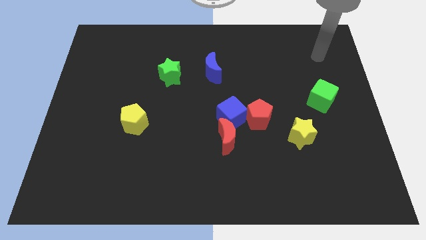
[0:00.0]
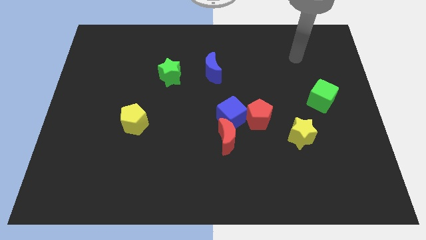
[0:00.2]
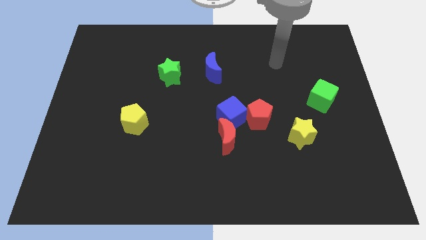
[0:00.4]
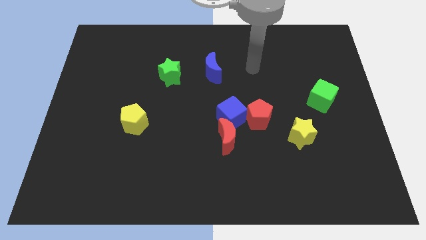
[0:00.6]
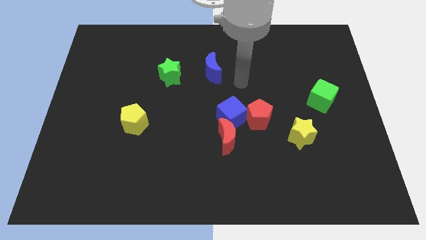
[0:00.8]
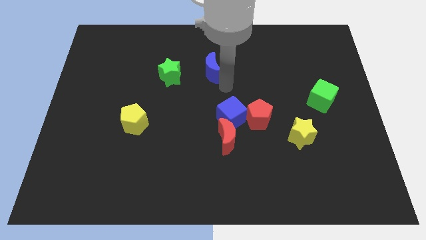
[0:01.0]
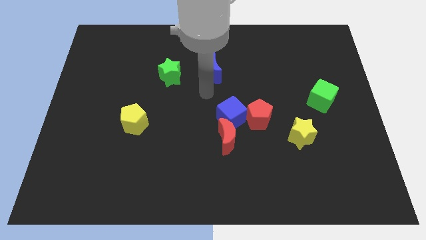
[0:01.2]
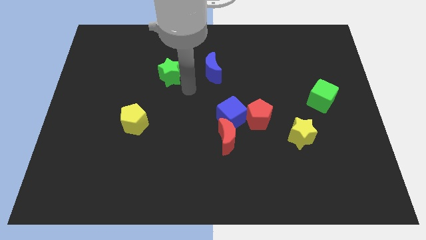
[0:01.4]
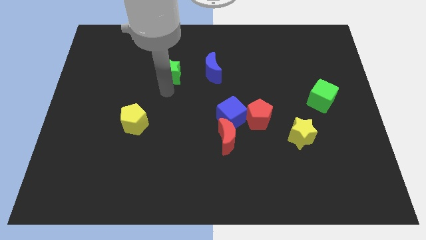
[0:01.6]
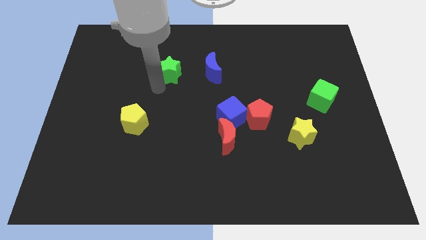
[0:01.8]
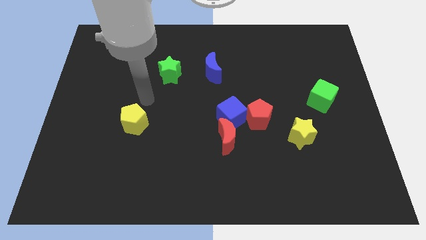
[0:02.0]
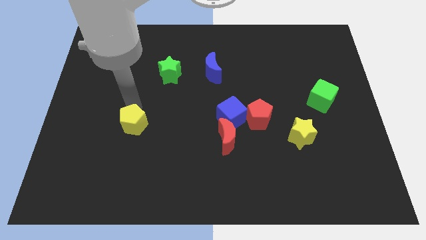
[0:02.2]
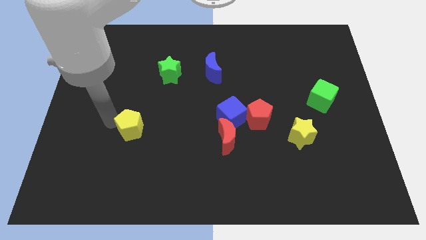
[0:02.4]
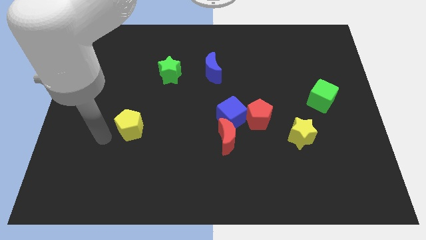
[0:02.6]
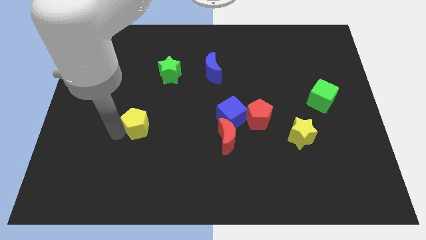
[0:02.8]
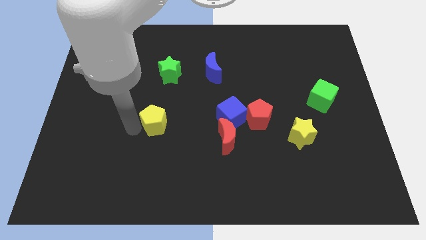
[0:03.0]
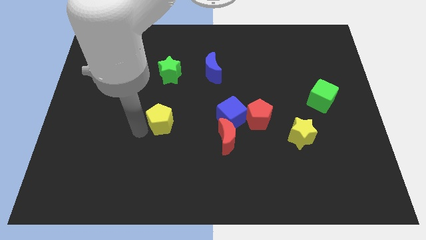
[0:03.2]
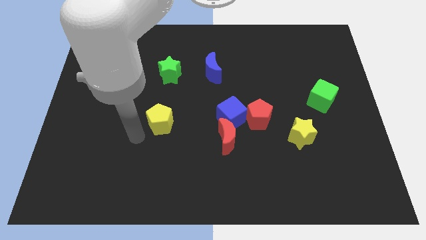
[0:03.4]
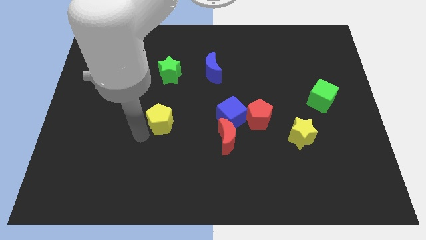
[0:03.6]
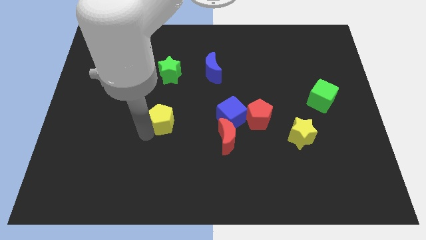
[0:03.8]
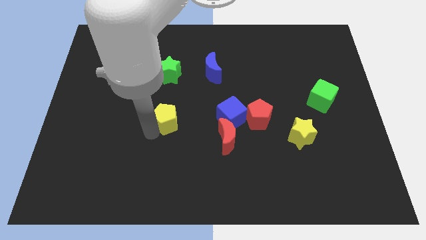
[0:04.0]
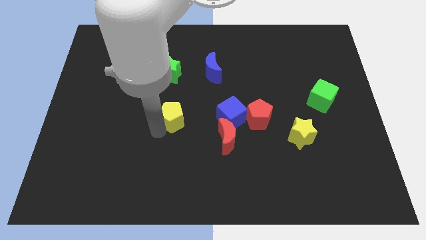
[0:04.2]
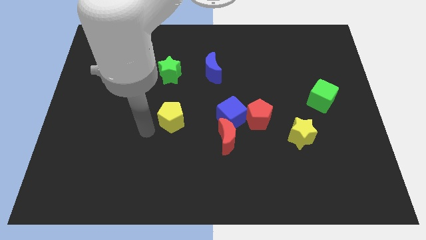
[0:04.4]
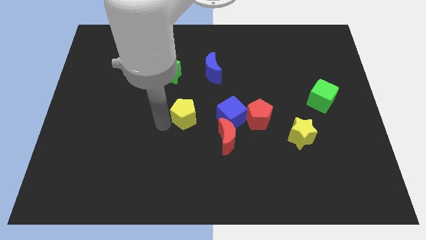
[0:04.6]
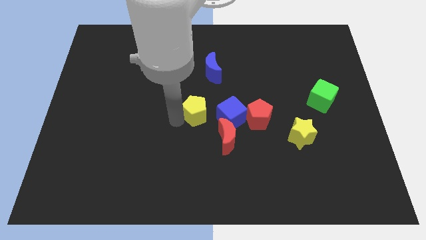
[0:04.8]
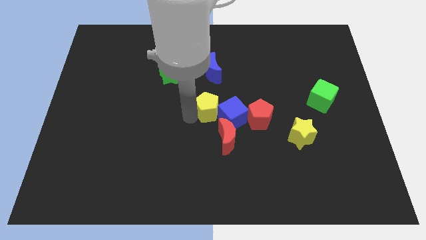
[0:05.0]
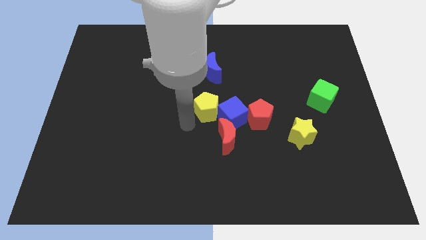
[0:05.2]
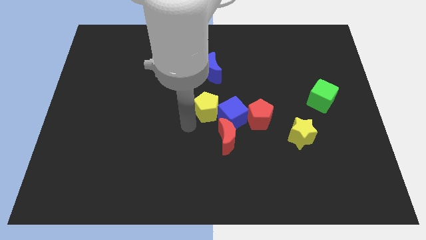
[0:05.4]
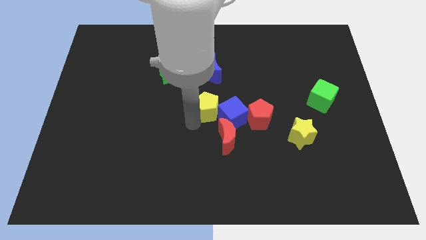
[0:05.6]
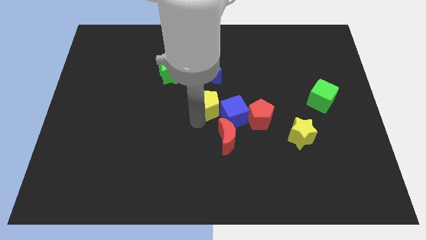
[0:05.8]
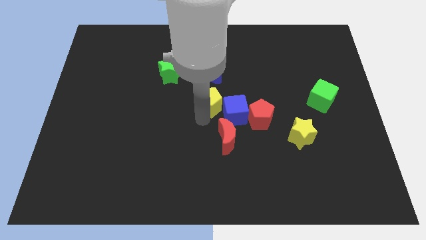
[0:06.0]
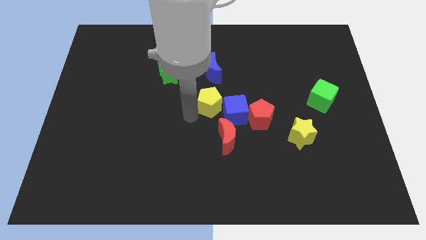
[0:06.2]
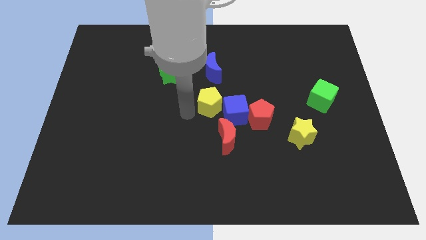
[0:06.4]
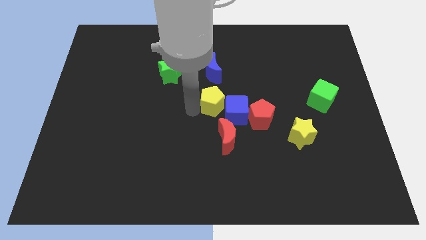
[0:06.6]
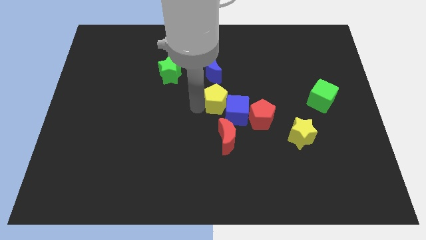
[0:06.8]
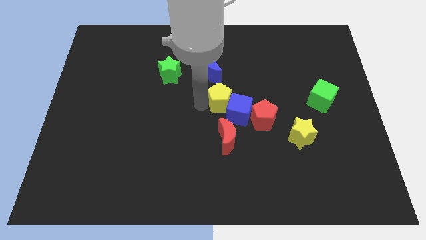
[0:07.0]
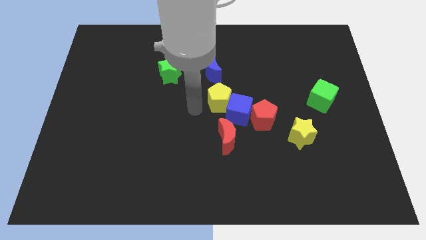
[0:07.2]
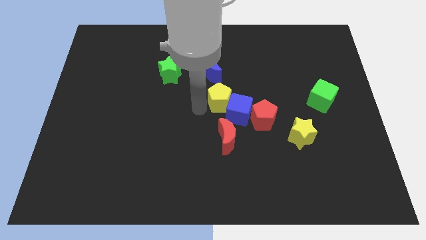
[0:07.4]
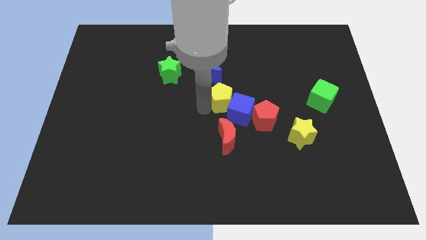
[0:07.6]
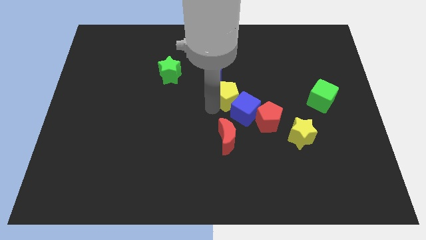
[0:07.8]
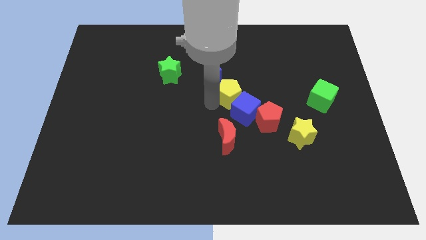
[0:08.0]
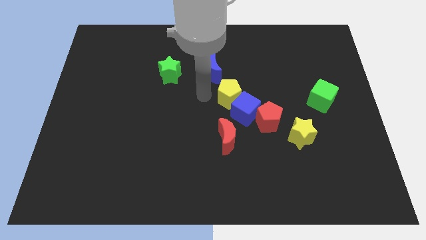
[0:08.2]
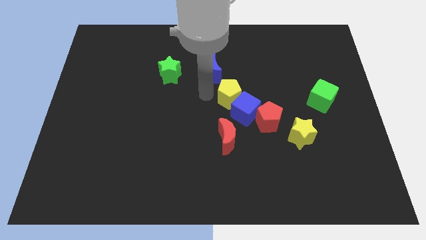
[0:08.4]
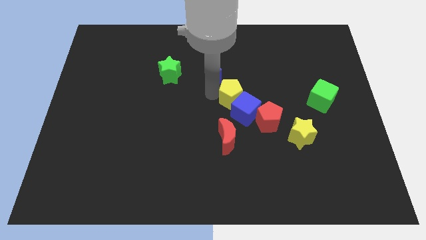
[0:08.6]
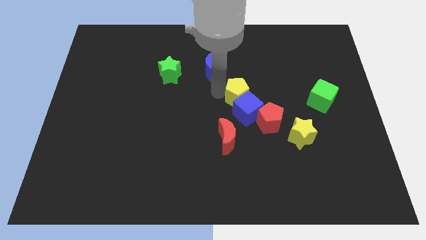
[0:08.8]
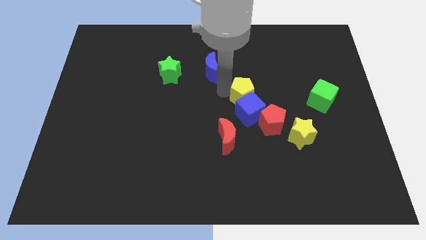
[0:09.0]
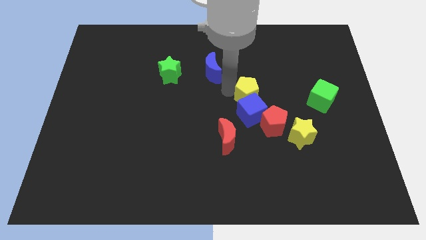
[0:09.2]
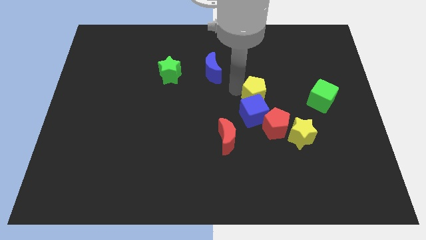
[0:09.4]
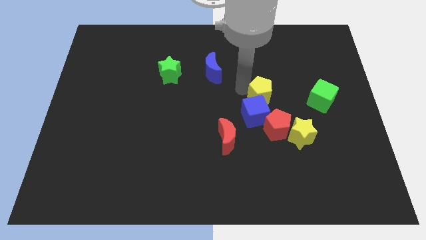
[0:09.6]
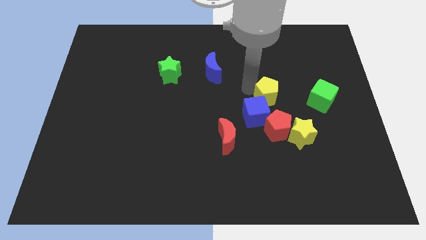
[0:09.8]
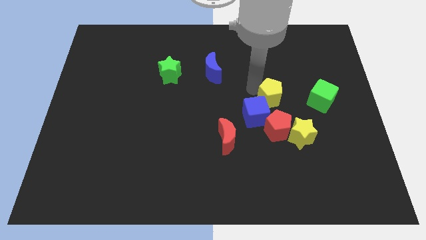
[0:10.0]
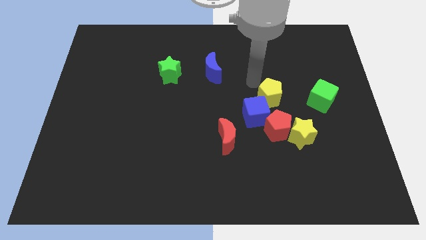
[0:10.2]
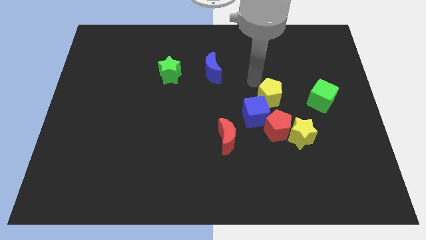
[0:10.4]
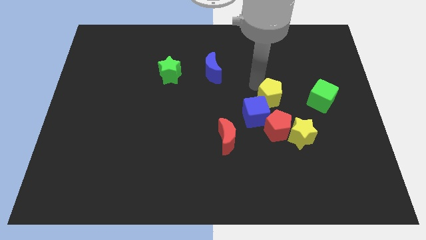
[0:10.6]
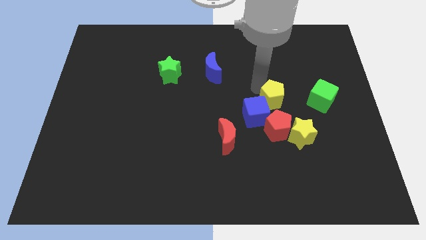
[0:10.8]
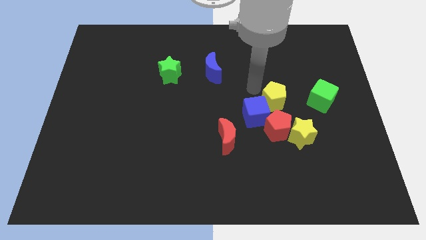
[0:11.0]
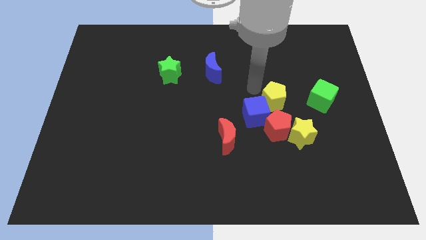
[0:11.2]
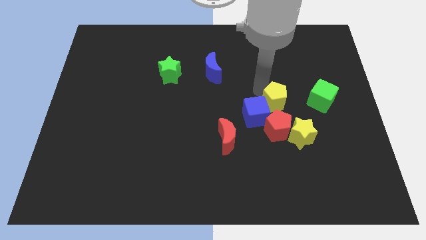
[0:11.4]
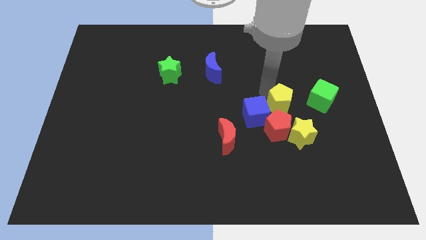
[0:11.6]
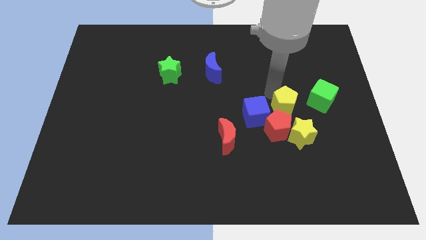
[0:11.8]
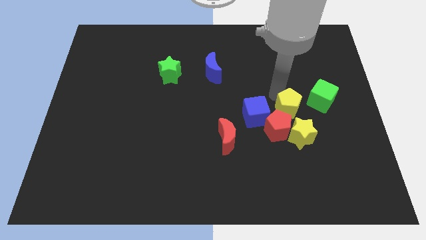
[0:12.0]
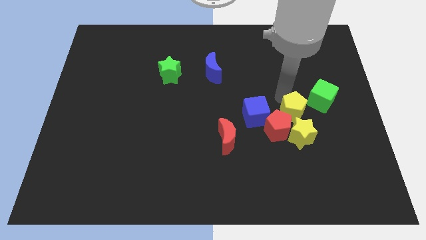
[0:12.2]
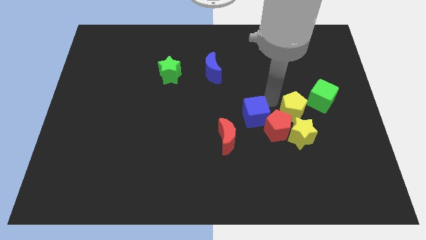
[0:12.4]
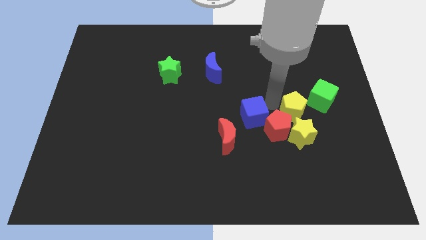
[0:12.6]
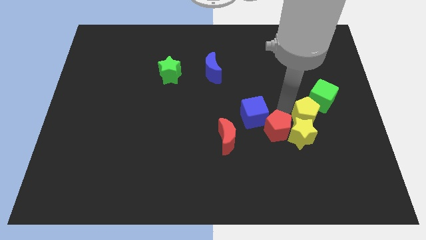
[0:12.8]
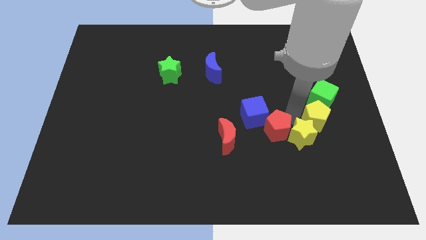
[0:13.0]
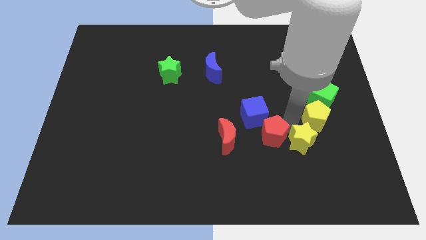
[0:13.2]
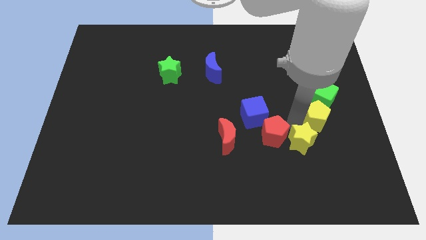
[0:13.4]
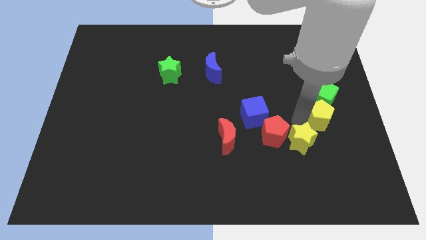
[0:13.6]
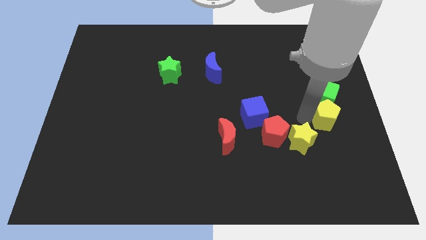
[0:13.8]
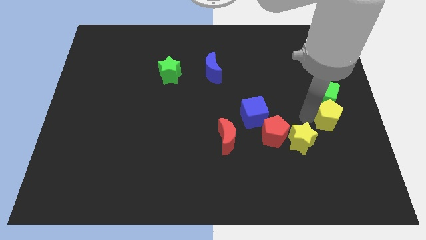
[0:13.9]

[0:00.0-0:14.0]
push the yellow pentagon to the right side of the board
